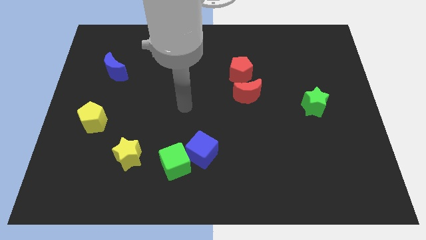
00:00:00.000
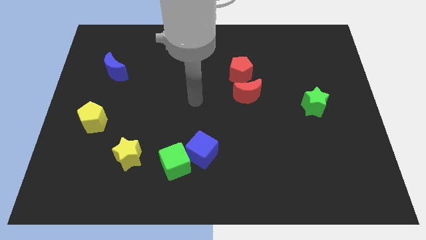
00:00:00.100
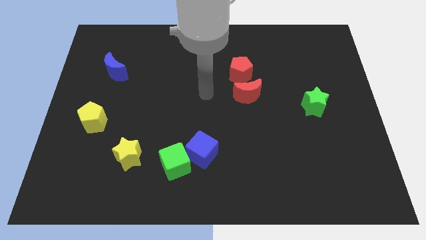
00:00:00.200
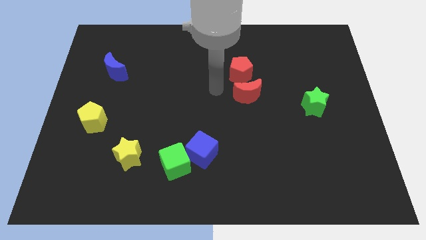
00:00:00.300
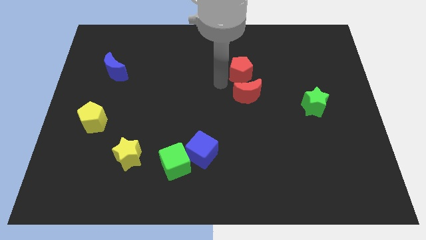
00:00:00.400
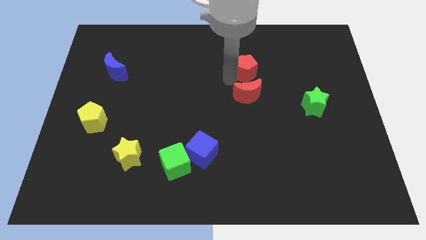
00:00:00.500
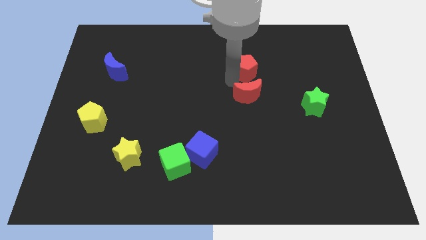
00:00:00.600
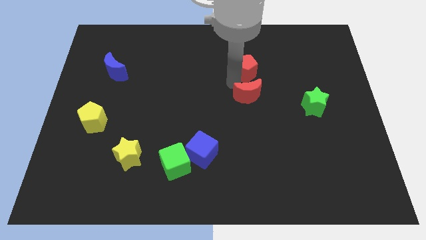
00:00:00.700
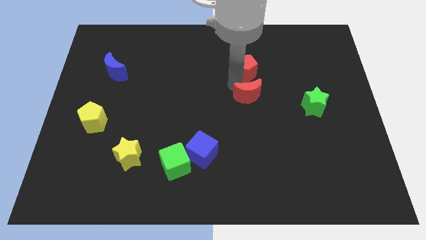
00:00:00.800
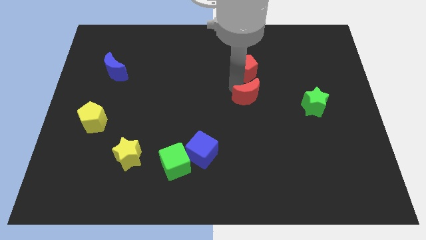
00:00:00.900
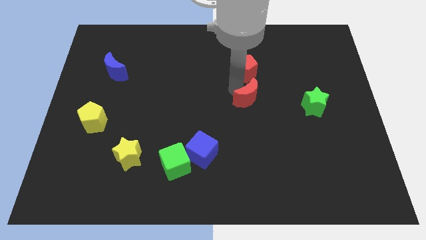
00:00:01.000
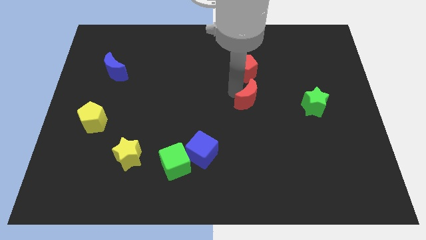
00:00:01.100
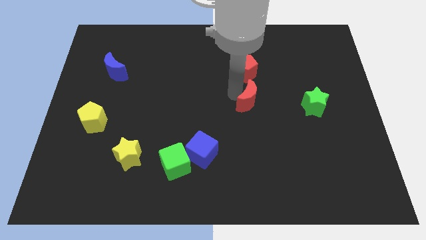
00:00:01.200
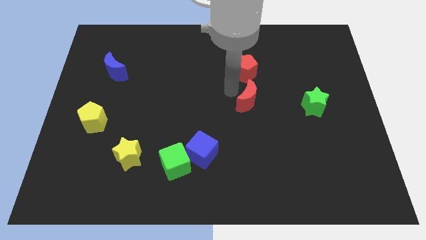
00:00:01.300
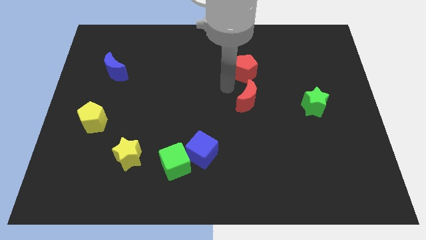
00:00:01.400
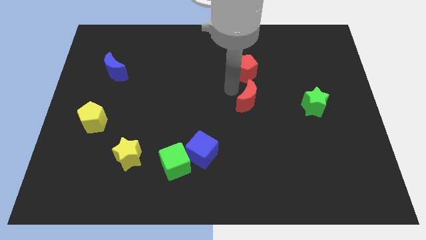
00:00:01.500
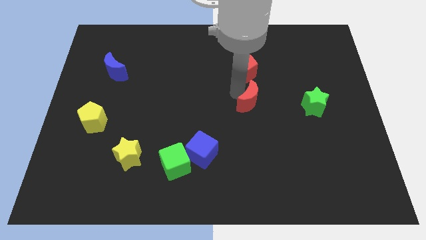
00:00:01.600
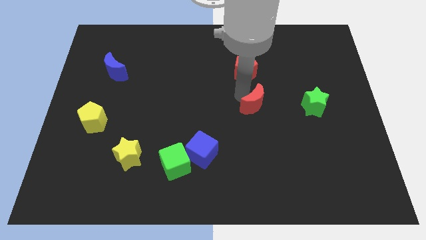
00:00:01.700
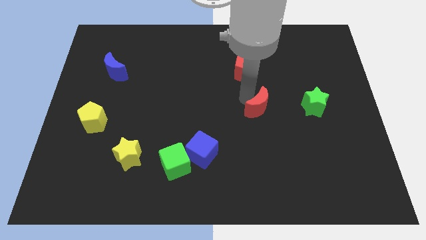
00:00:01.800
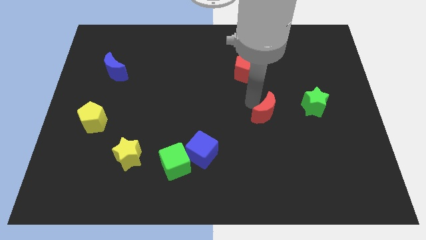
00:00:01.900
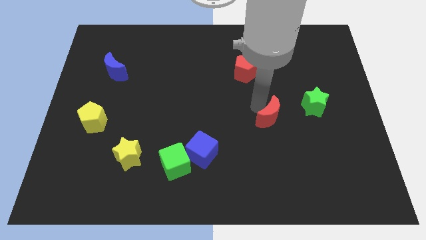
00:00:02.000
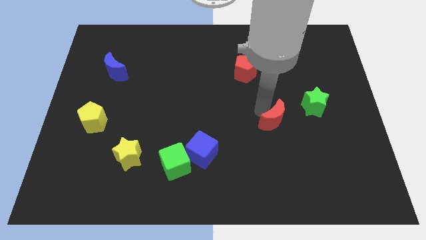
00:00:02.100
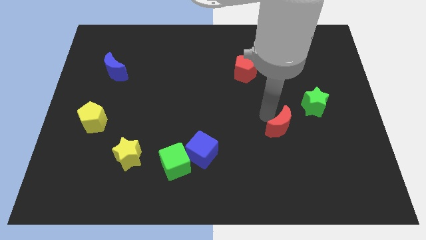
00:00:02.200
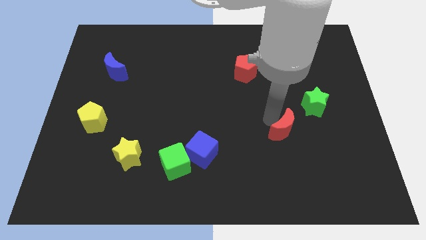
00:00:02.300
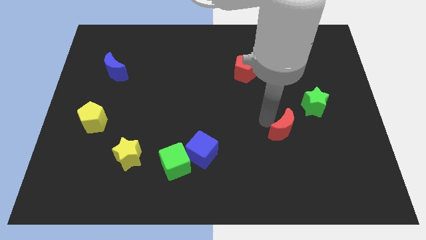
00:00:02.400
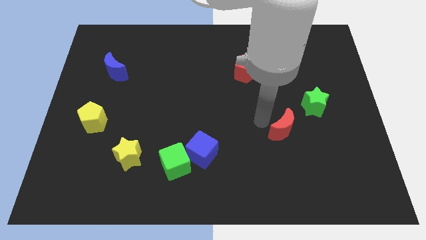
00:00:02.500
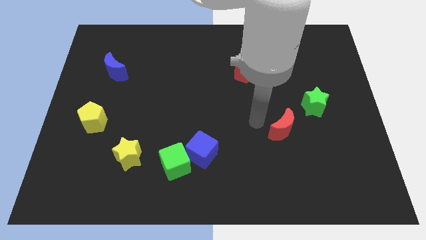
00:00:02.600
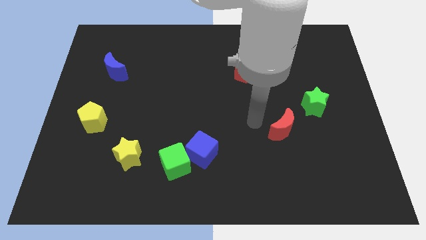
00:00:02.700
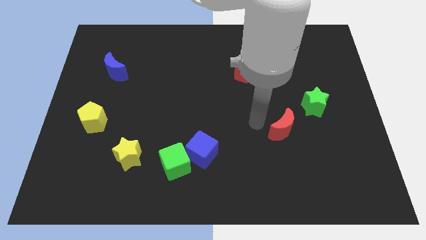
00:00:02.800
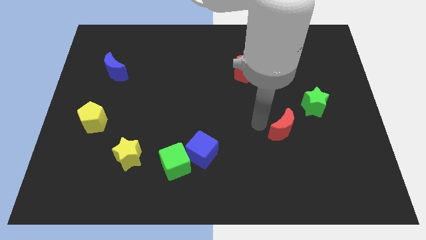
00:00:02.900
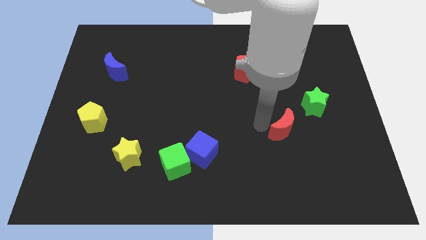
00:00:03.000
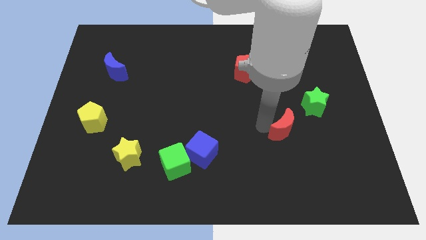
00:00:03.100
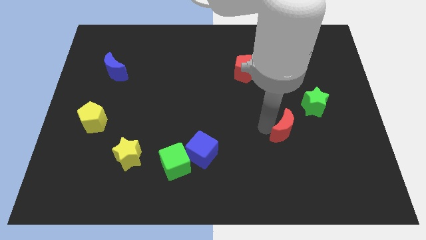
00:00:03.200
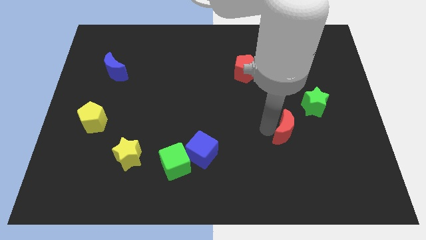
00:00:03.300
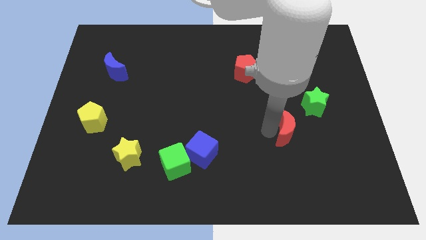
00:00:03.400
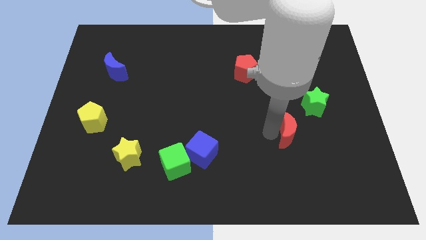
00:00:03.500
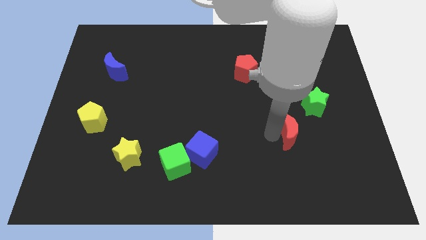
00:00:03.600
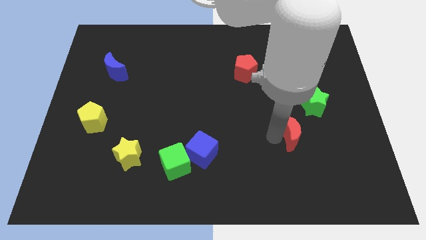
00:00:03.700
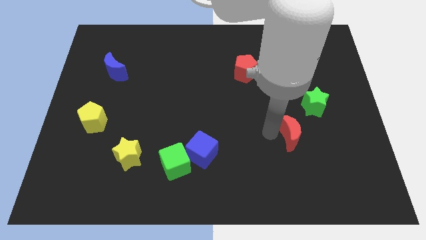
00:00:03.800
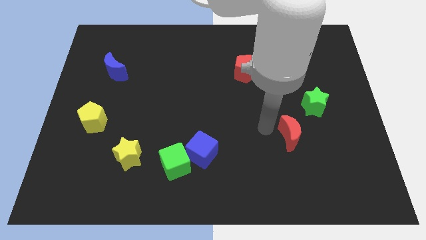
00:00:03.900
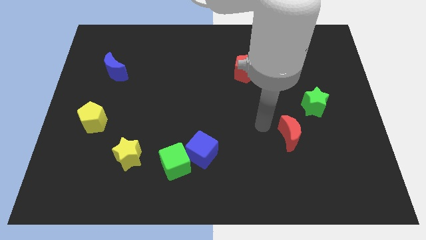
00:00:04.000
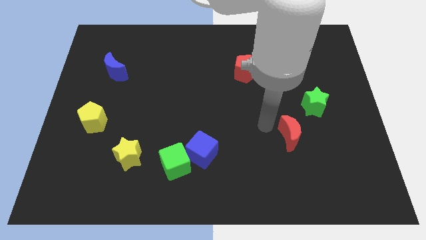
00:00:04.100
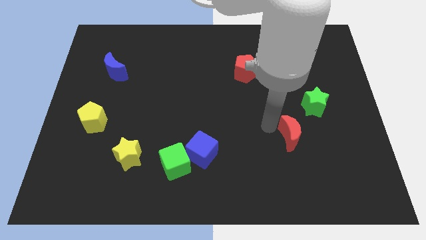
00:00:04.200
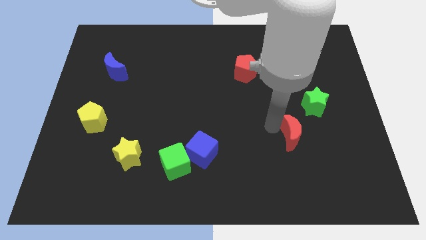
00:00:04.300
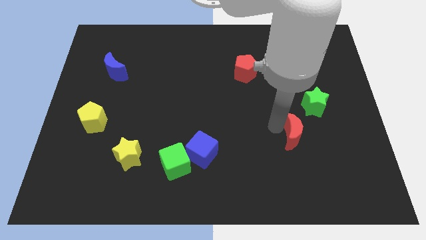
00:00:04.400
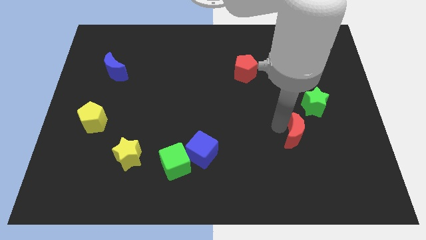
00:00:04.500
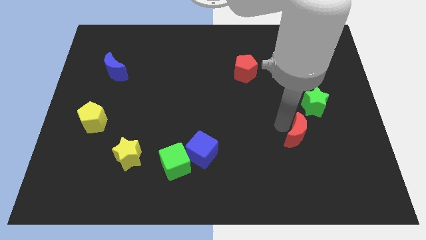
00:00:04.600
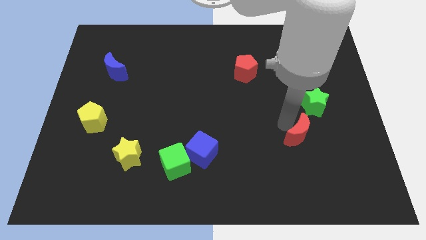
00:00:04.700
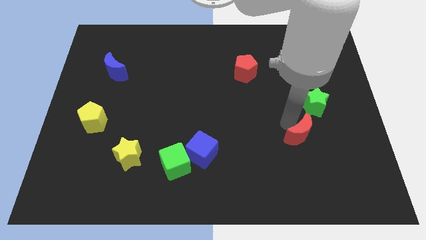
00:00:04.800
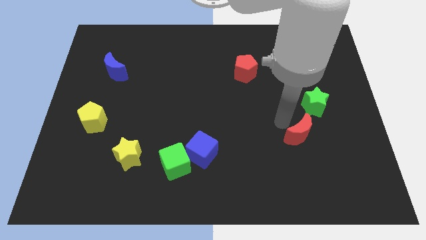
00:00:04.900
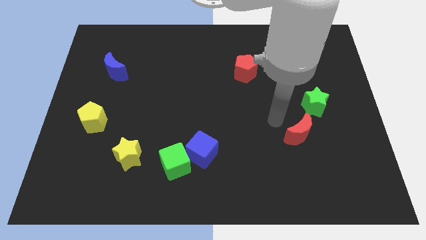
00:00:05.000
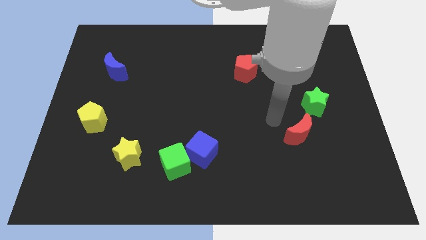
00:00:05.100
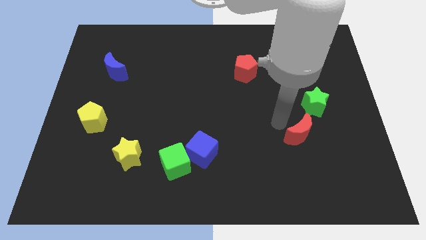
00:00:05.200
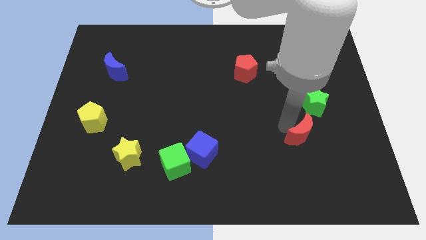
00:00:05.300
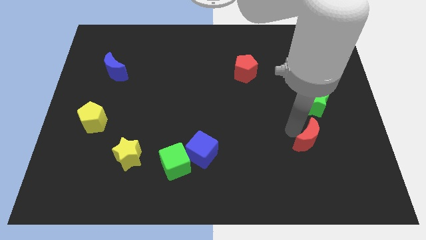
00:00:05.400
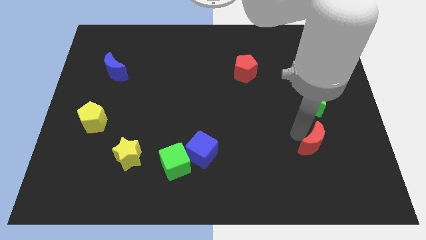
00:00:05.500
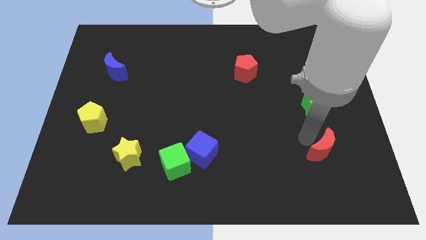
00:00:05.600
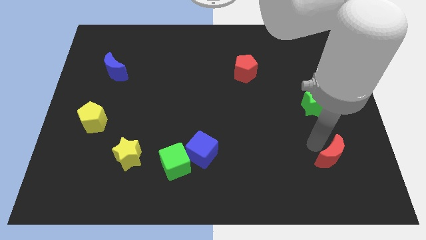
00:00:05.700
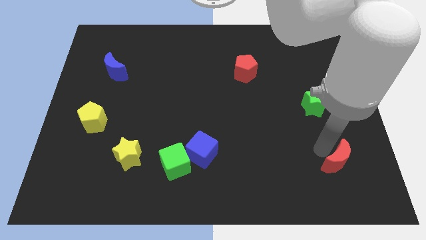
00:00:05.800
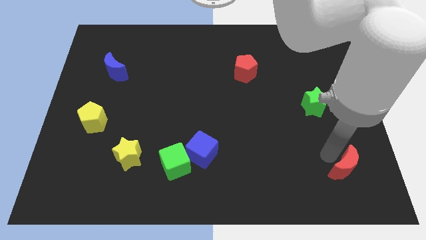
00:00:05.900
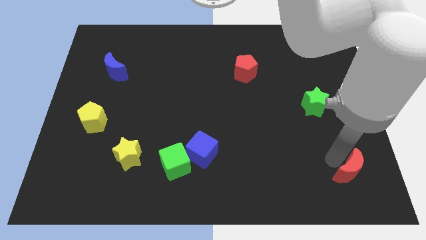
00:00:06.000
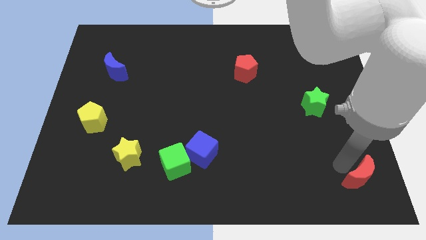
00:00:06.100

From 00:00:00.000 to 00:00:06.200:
move the red moon to the lower right corner

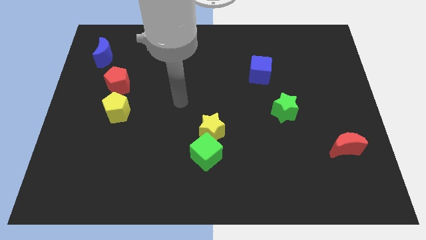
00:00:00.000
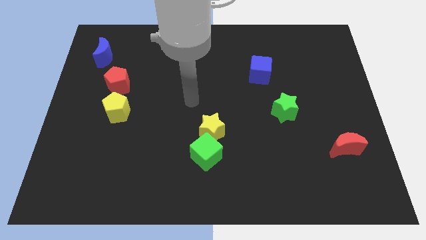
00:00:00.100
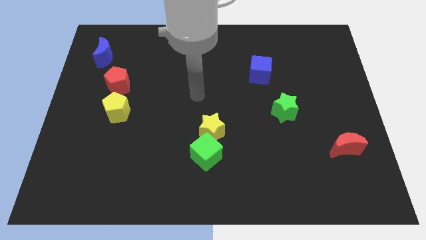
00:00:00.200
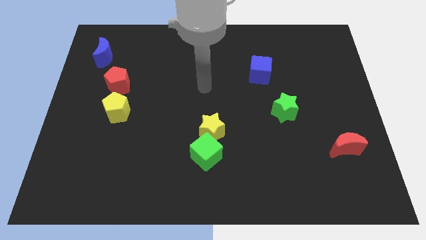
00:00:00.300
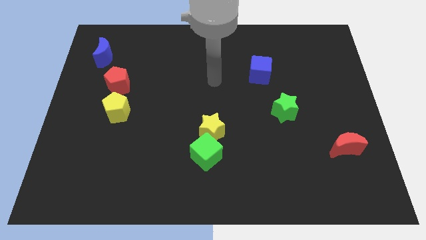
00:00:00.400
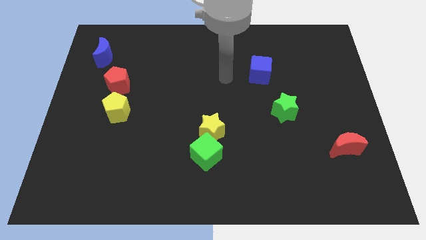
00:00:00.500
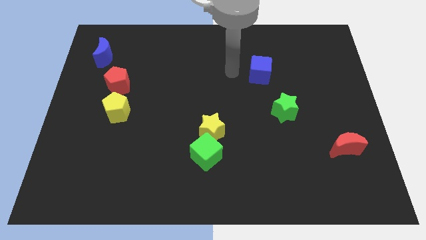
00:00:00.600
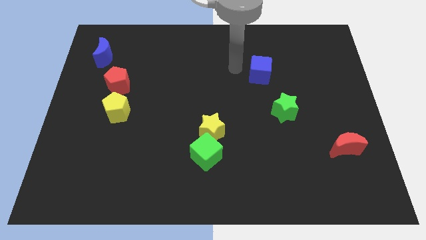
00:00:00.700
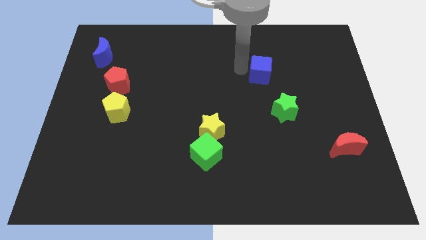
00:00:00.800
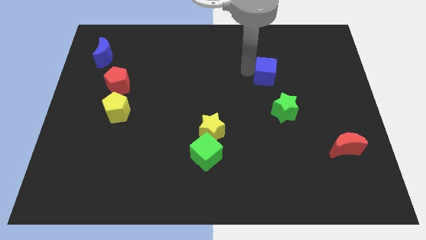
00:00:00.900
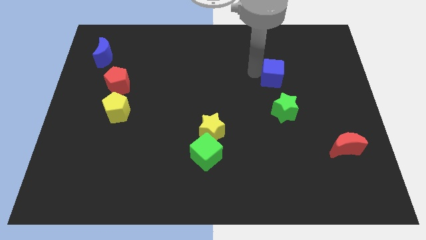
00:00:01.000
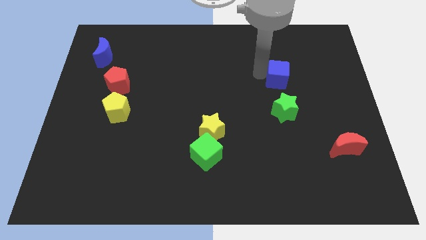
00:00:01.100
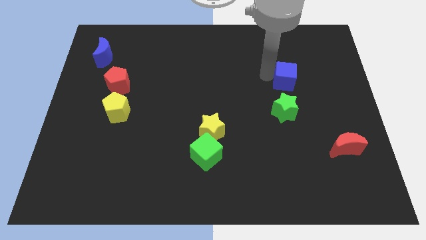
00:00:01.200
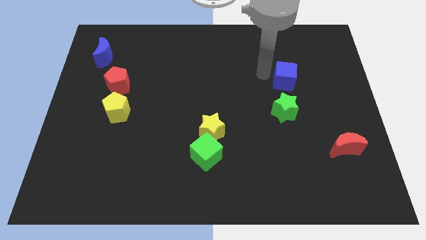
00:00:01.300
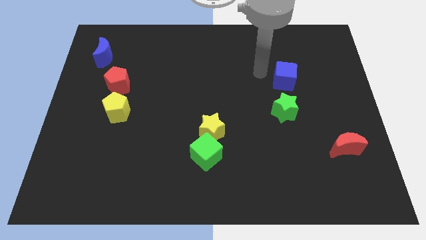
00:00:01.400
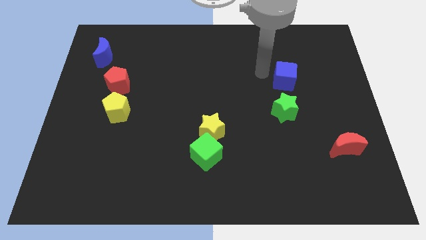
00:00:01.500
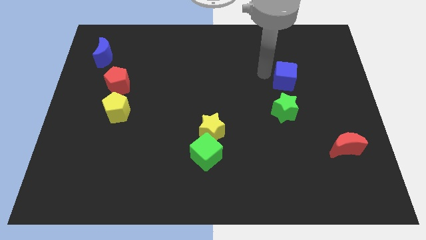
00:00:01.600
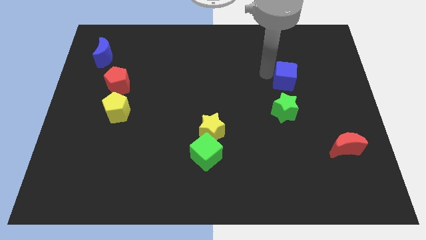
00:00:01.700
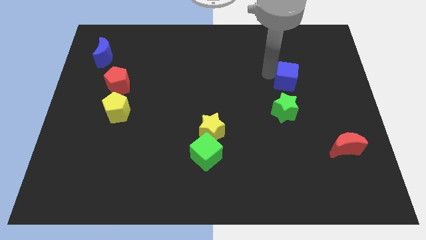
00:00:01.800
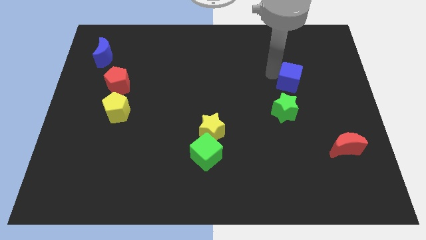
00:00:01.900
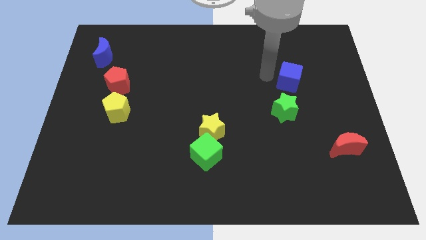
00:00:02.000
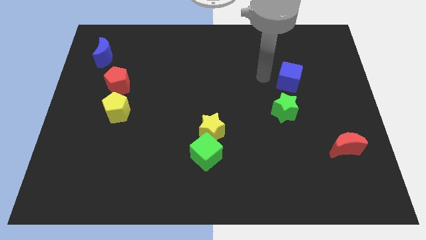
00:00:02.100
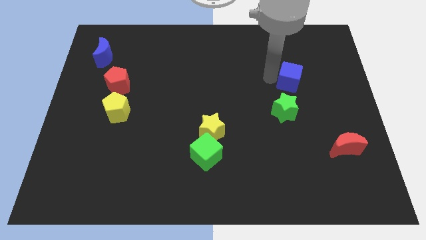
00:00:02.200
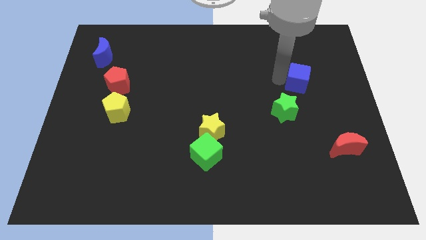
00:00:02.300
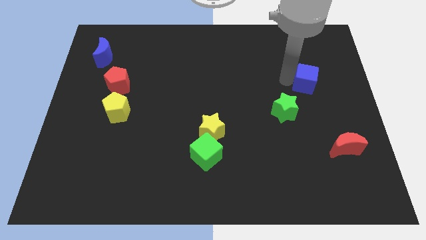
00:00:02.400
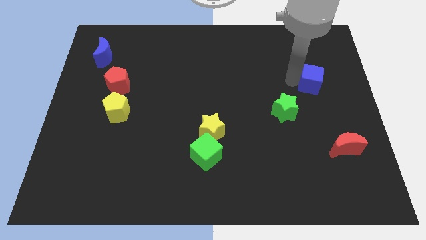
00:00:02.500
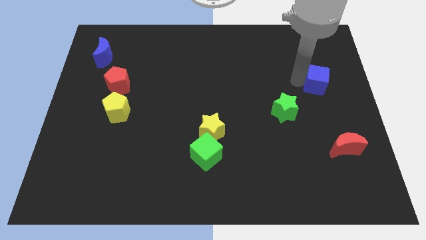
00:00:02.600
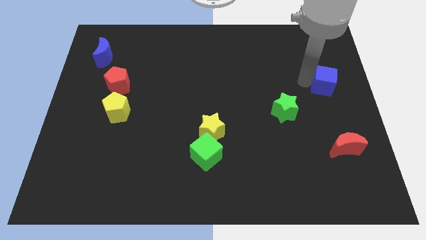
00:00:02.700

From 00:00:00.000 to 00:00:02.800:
slide the blue cube to the center right
